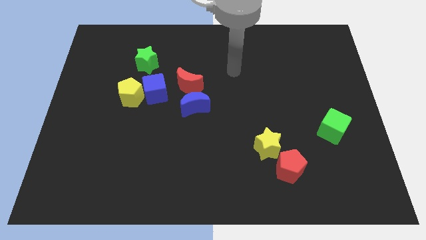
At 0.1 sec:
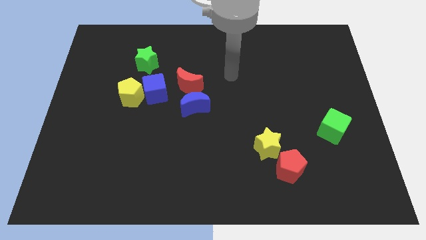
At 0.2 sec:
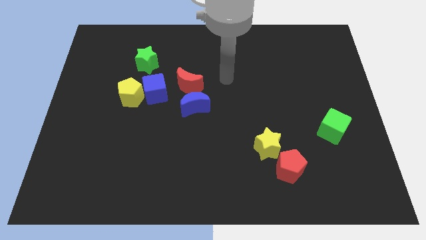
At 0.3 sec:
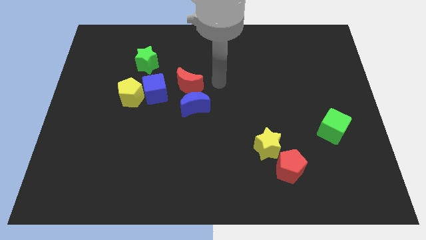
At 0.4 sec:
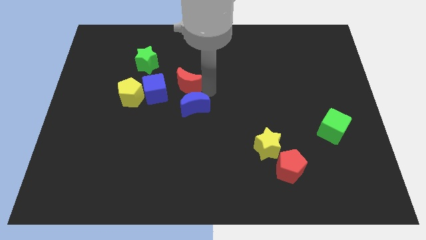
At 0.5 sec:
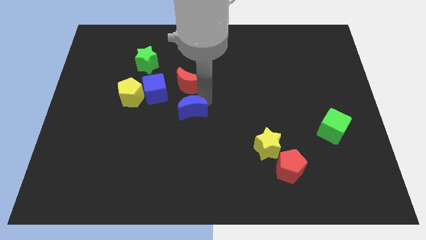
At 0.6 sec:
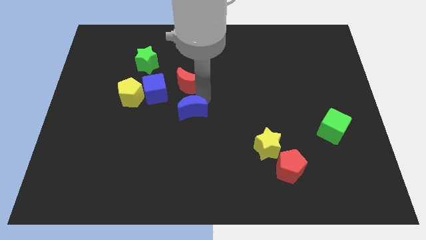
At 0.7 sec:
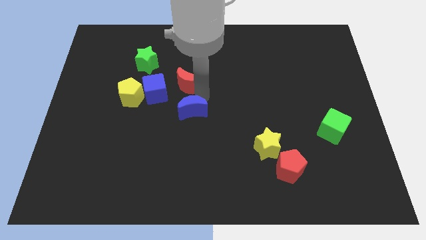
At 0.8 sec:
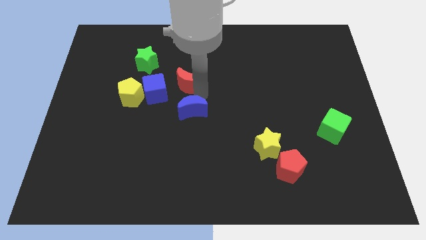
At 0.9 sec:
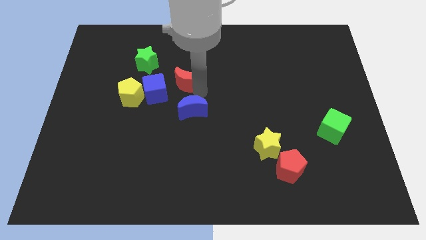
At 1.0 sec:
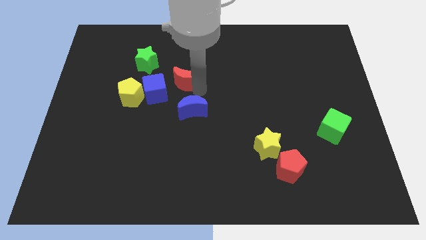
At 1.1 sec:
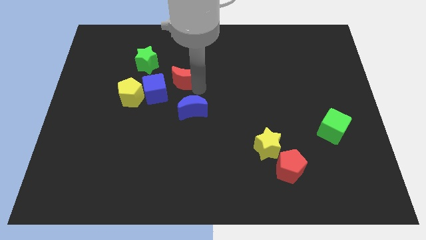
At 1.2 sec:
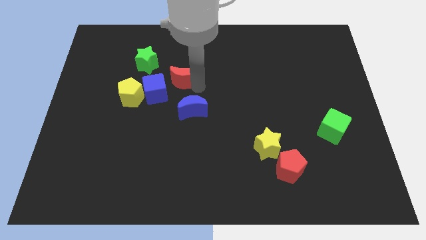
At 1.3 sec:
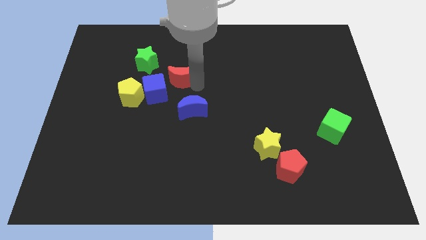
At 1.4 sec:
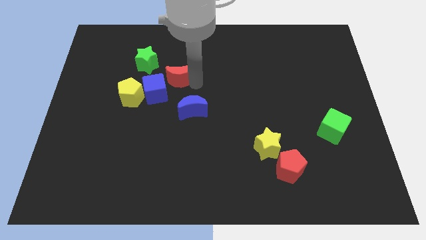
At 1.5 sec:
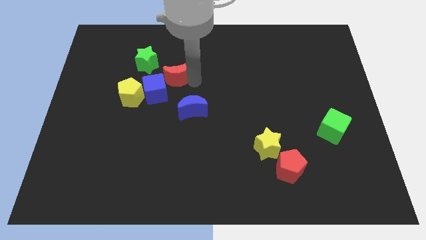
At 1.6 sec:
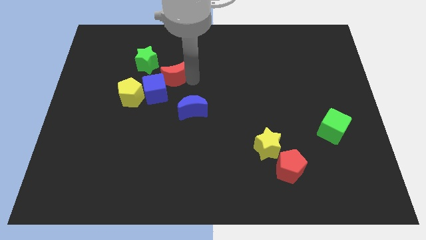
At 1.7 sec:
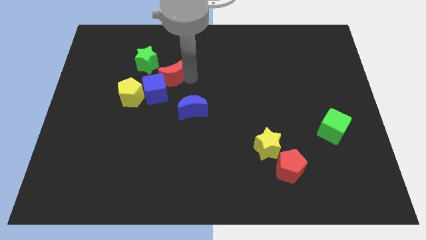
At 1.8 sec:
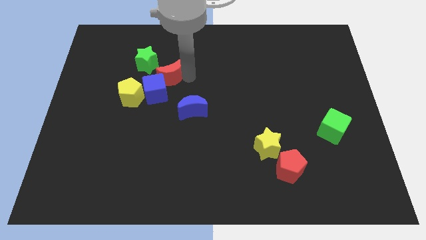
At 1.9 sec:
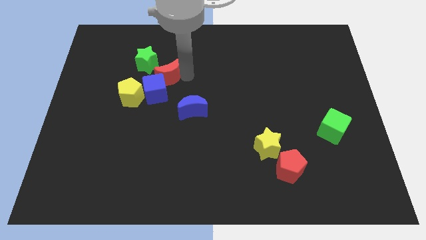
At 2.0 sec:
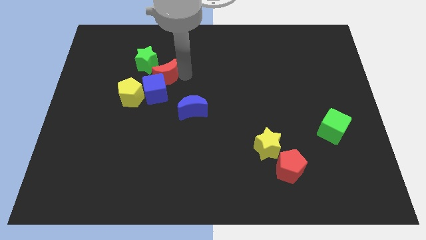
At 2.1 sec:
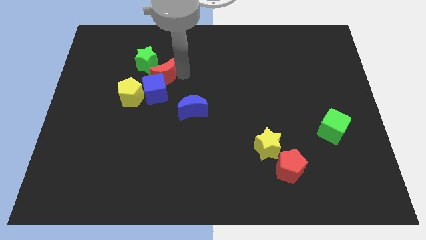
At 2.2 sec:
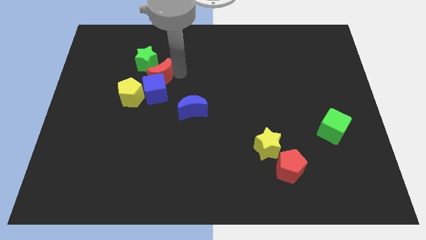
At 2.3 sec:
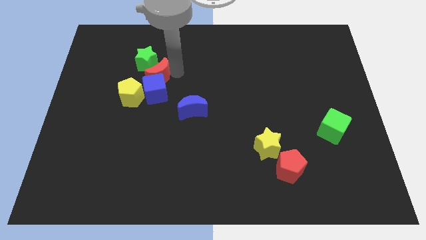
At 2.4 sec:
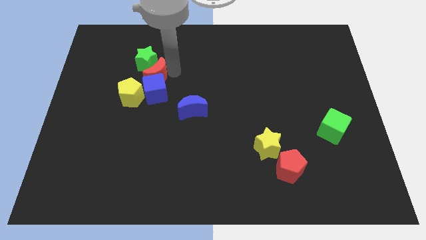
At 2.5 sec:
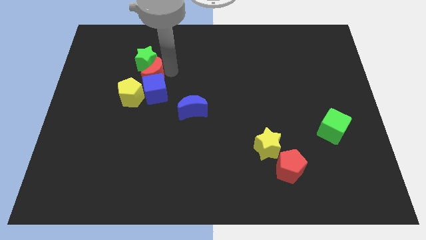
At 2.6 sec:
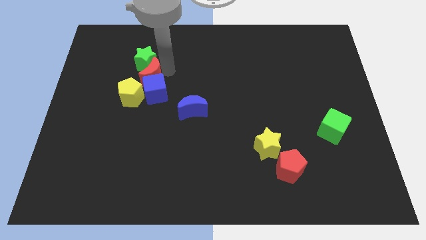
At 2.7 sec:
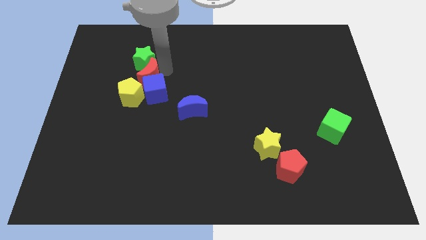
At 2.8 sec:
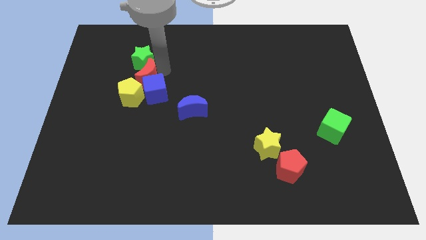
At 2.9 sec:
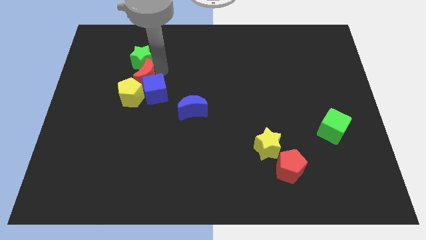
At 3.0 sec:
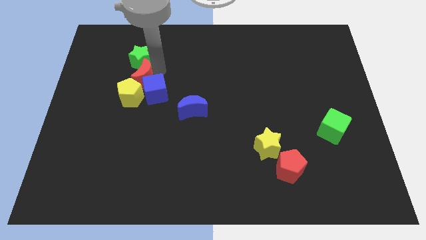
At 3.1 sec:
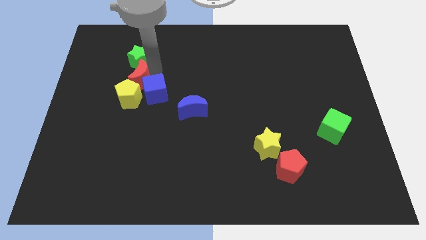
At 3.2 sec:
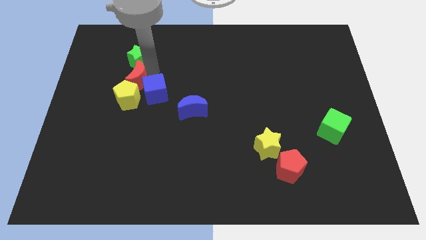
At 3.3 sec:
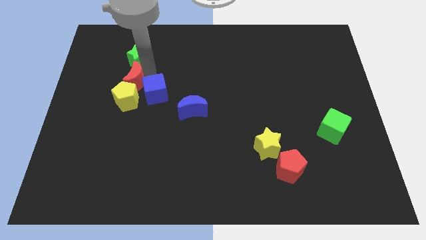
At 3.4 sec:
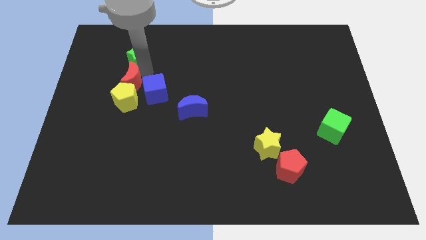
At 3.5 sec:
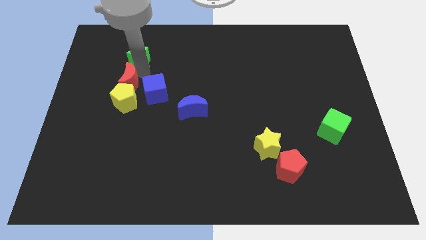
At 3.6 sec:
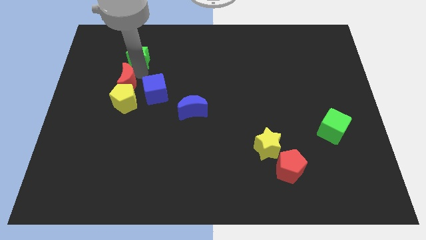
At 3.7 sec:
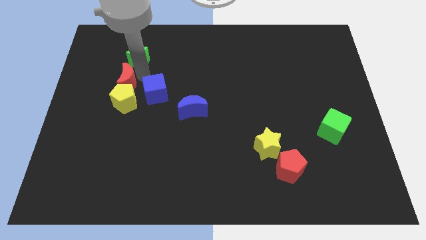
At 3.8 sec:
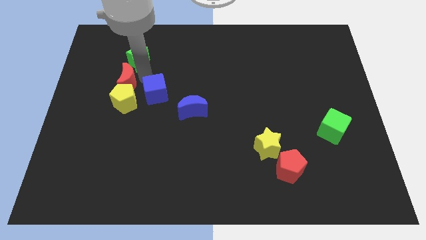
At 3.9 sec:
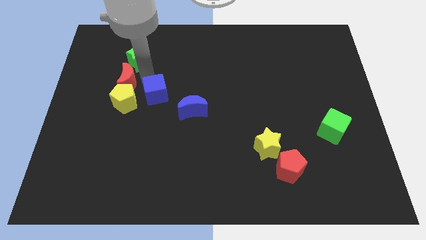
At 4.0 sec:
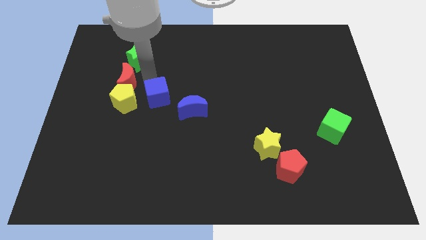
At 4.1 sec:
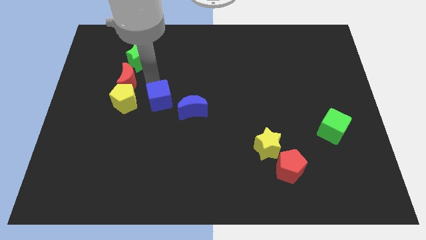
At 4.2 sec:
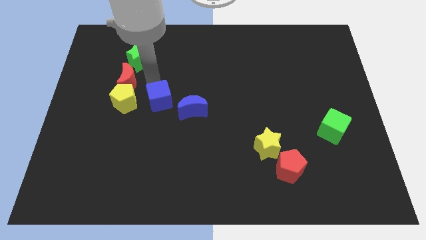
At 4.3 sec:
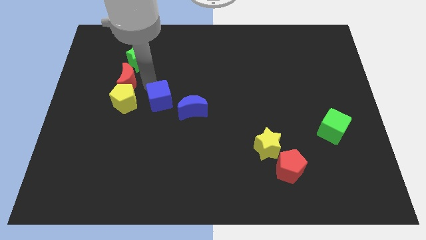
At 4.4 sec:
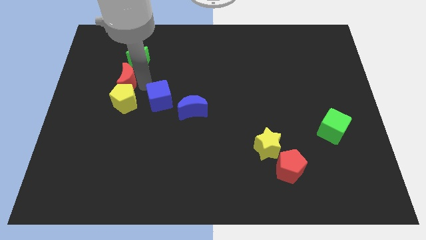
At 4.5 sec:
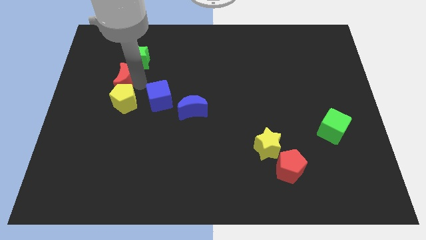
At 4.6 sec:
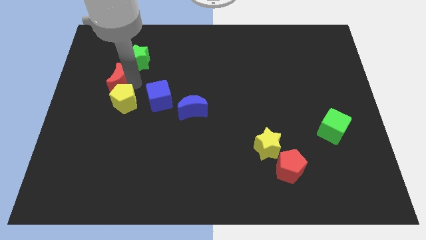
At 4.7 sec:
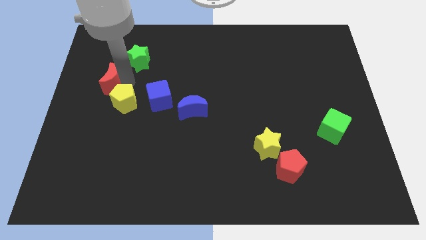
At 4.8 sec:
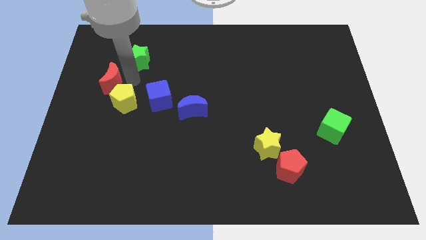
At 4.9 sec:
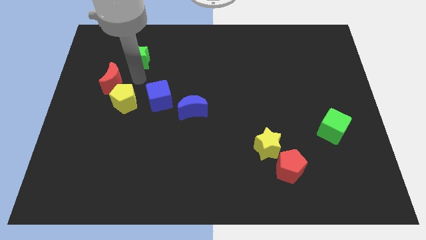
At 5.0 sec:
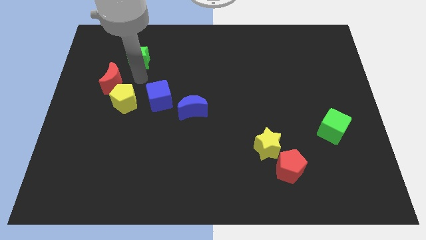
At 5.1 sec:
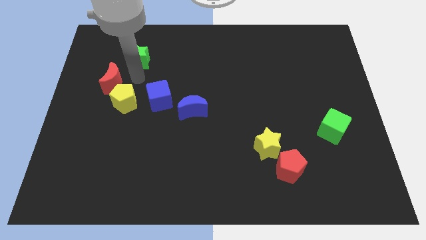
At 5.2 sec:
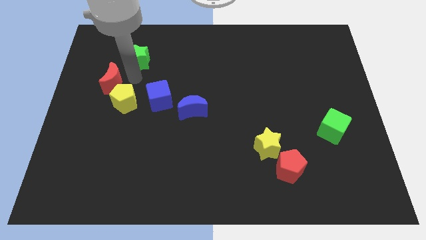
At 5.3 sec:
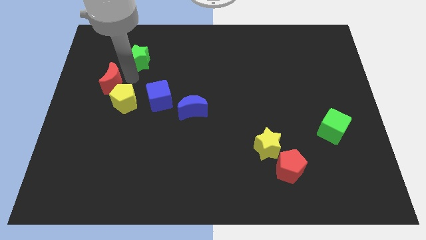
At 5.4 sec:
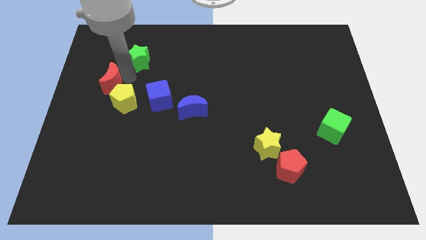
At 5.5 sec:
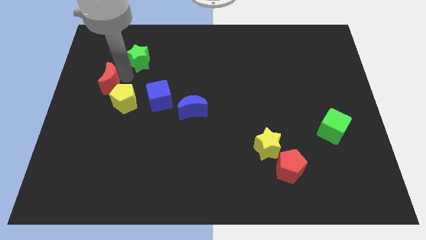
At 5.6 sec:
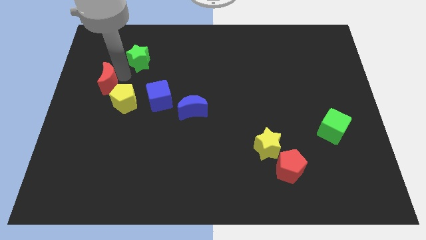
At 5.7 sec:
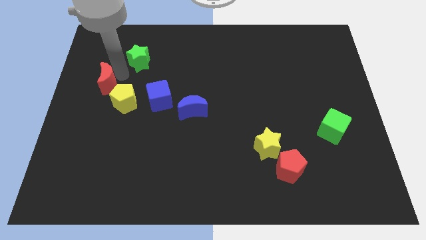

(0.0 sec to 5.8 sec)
push the red moon to the left side
